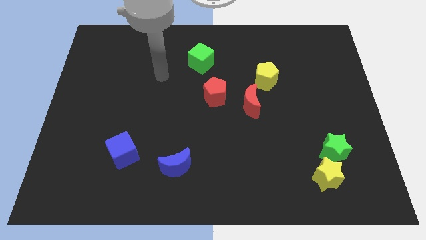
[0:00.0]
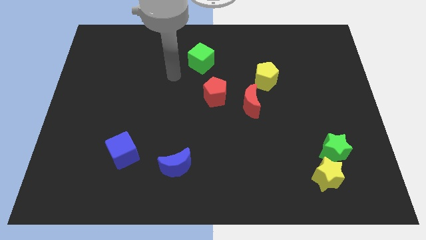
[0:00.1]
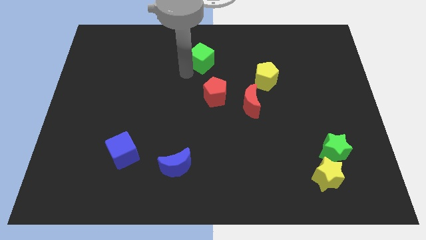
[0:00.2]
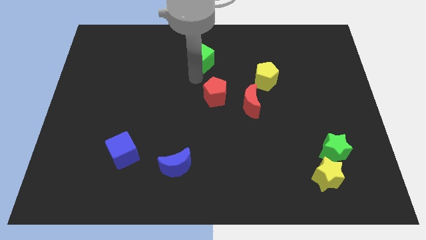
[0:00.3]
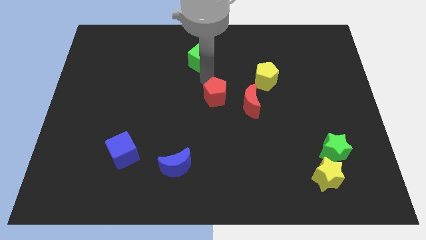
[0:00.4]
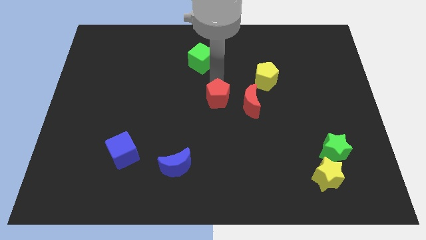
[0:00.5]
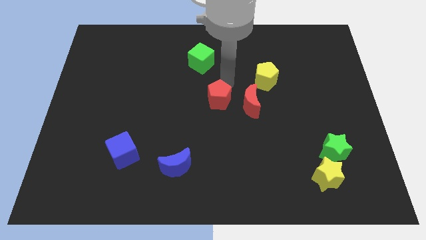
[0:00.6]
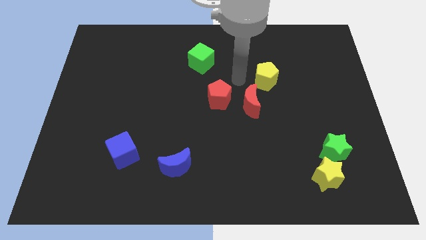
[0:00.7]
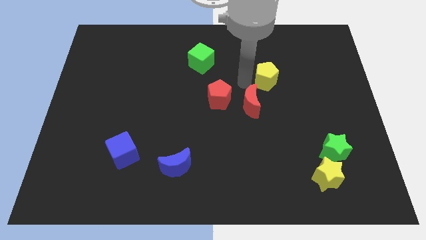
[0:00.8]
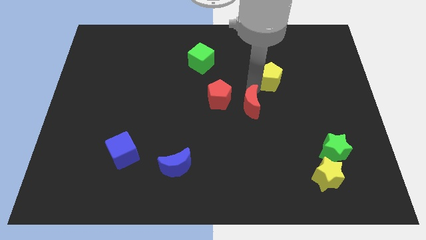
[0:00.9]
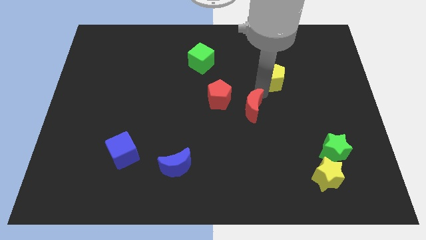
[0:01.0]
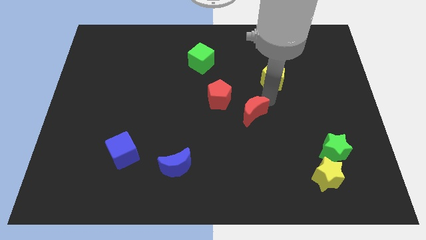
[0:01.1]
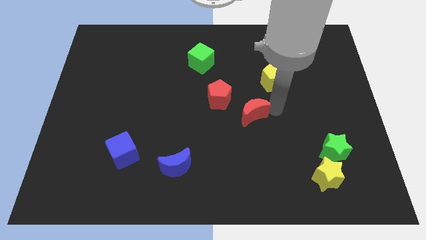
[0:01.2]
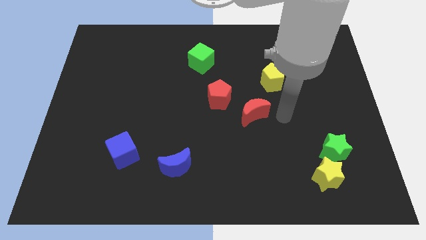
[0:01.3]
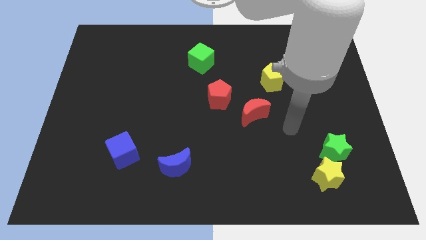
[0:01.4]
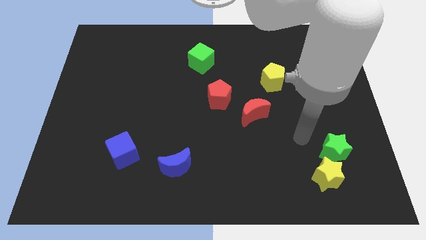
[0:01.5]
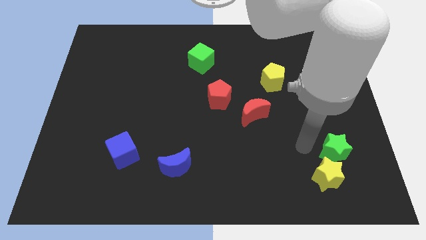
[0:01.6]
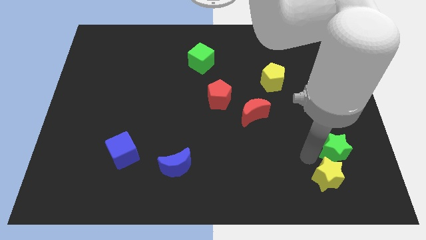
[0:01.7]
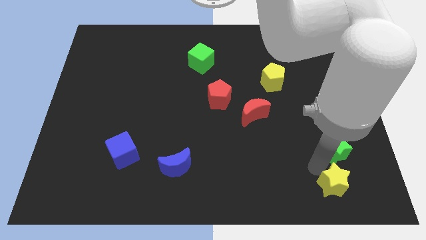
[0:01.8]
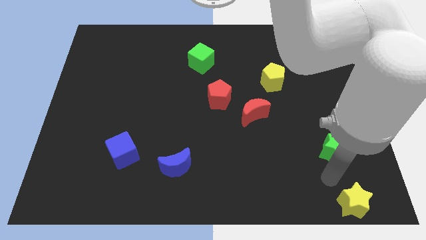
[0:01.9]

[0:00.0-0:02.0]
pull the green star apart from the yellow star

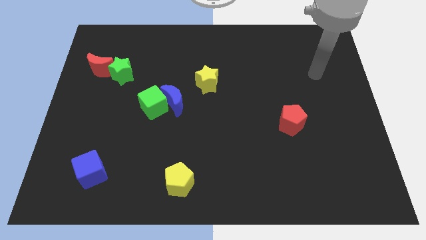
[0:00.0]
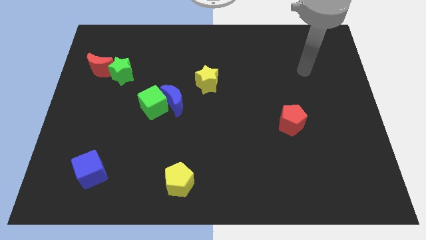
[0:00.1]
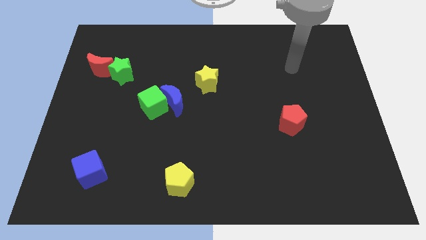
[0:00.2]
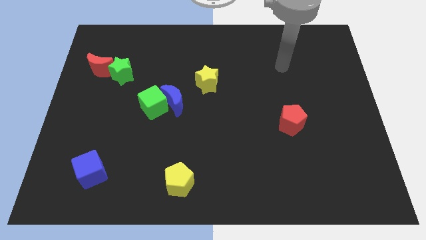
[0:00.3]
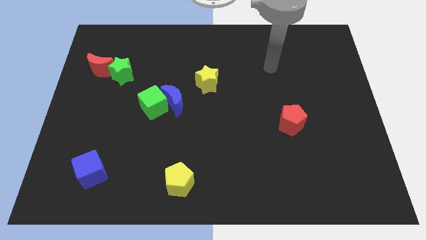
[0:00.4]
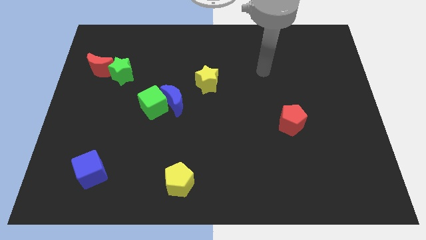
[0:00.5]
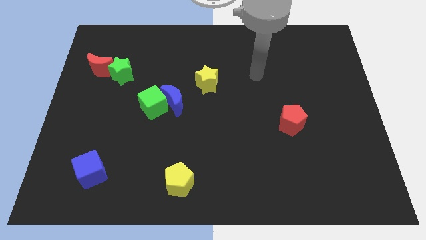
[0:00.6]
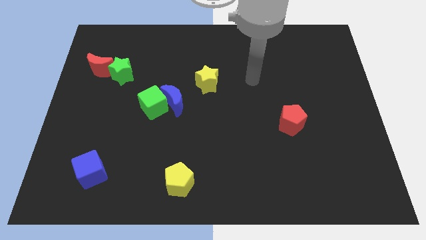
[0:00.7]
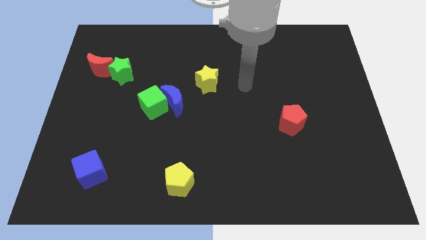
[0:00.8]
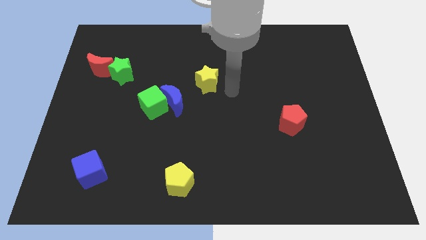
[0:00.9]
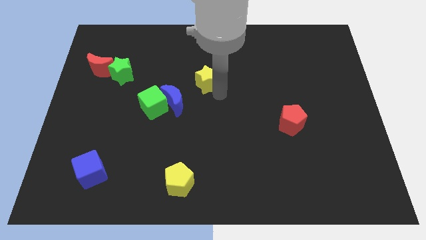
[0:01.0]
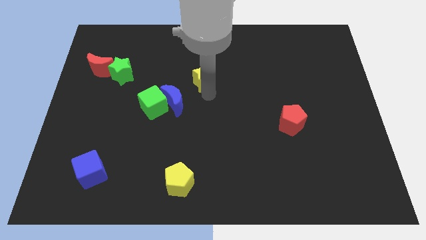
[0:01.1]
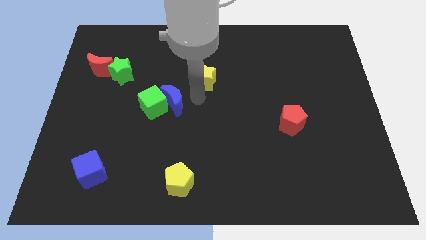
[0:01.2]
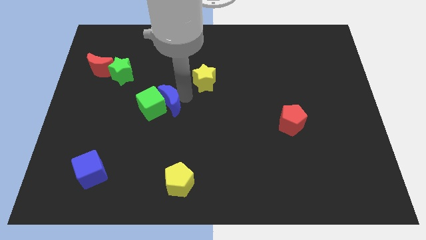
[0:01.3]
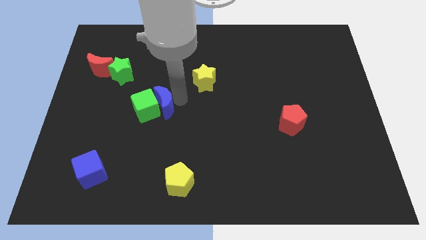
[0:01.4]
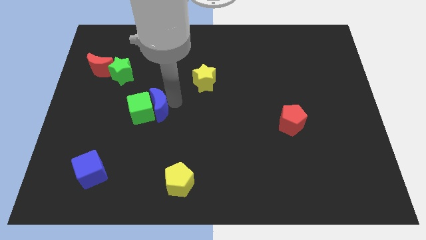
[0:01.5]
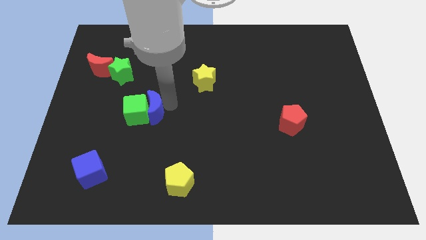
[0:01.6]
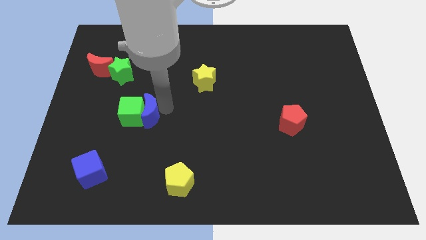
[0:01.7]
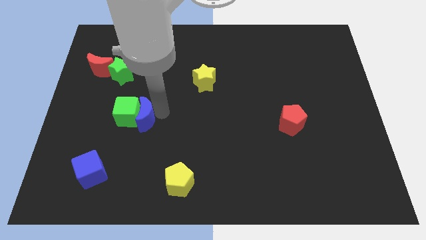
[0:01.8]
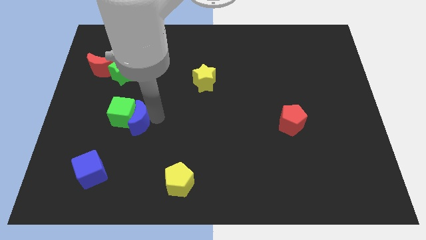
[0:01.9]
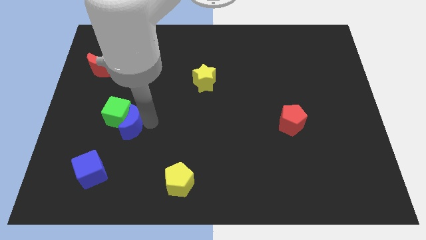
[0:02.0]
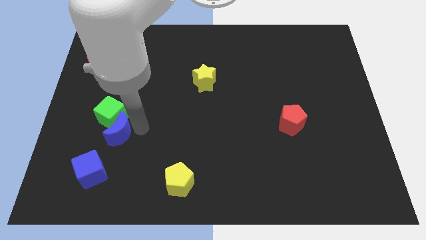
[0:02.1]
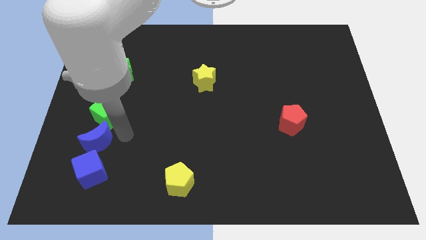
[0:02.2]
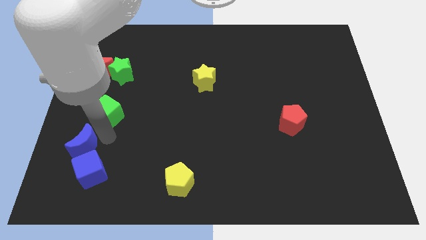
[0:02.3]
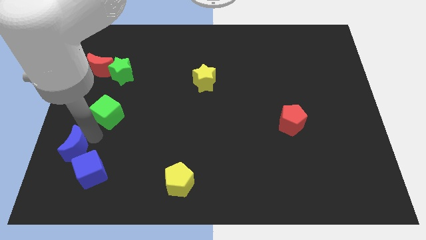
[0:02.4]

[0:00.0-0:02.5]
pull the green cube apart from the blue moon

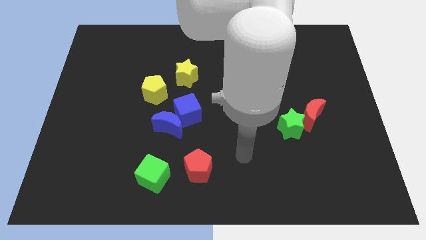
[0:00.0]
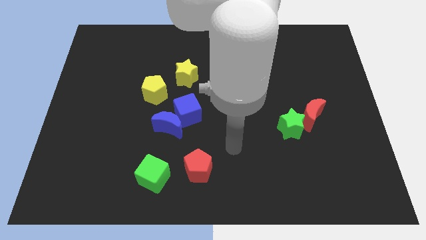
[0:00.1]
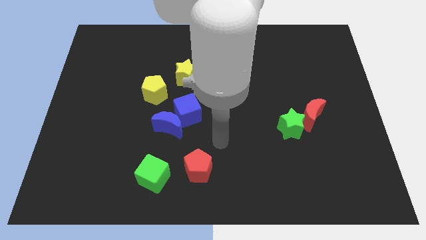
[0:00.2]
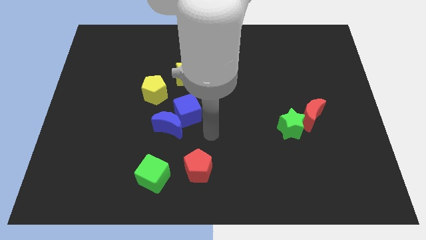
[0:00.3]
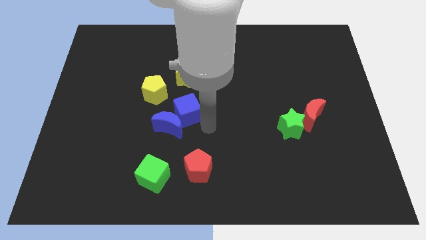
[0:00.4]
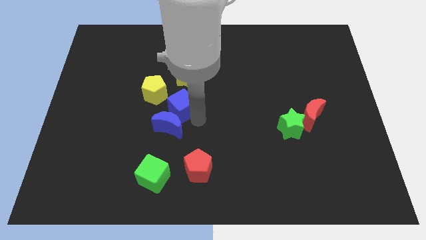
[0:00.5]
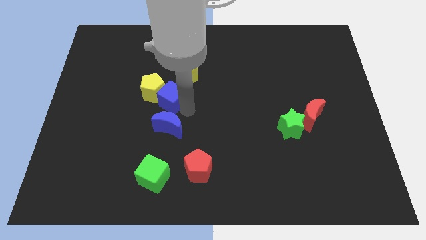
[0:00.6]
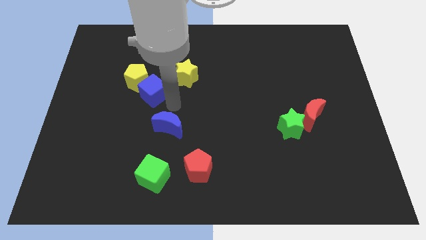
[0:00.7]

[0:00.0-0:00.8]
separate the blue moon from the blue cube

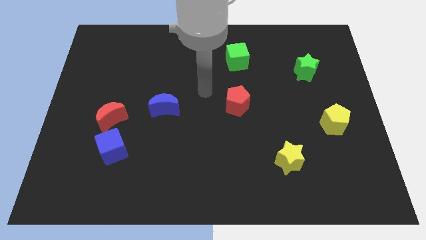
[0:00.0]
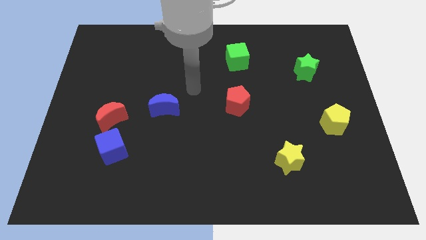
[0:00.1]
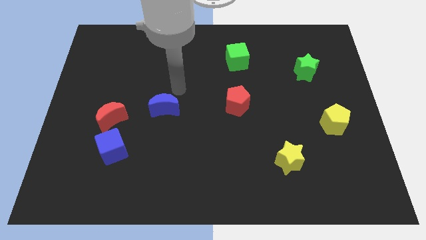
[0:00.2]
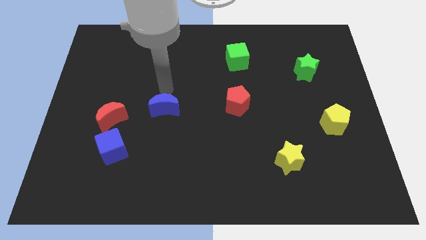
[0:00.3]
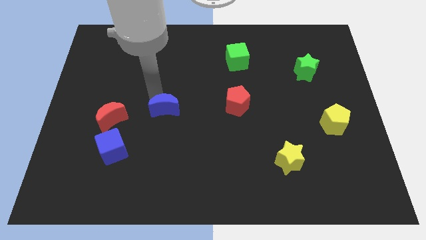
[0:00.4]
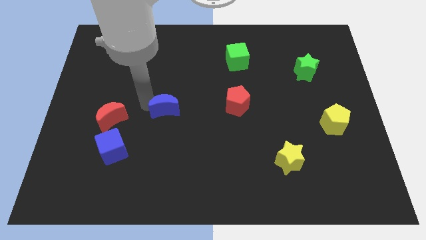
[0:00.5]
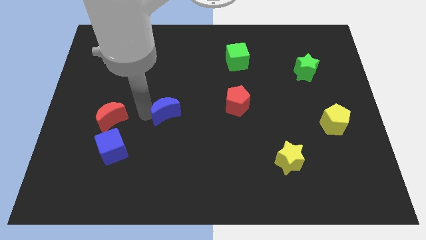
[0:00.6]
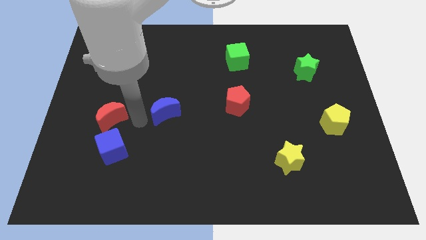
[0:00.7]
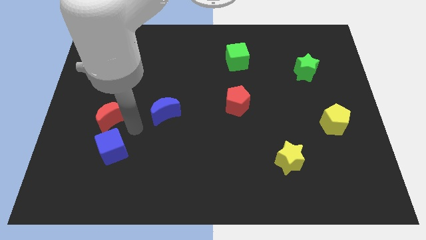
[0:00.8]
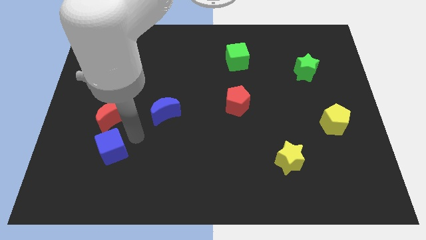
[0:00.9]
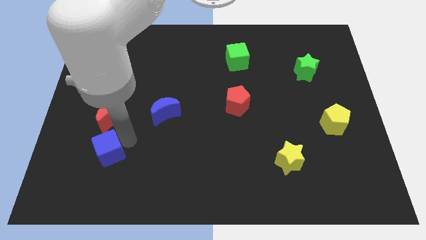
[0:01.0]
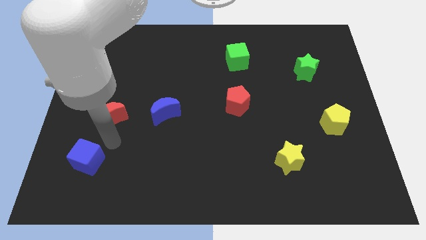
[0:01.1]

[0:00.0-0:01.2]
pull the red moon apart from the blue cube

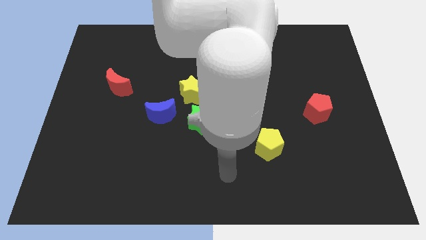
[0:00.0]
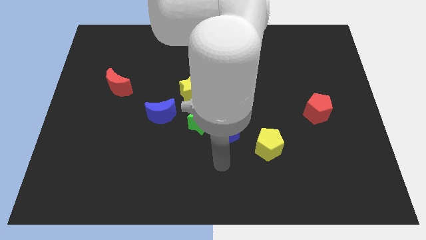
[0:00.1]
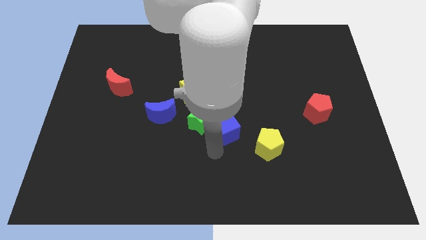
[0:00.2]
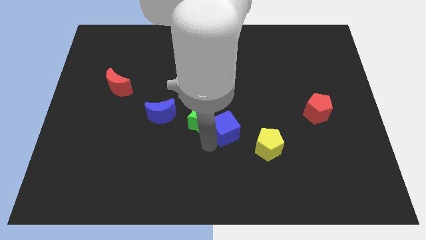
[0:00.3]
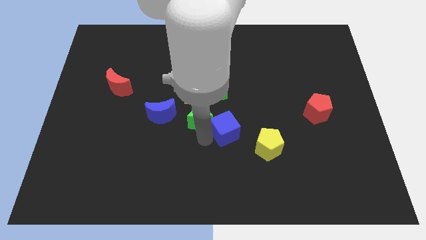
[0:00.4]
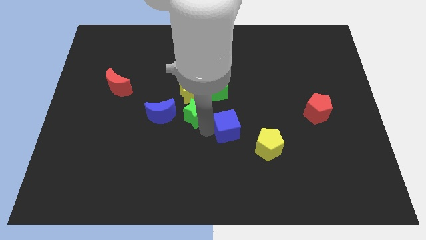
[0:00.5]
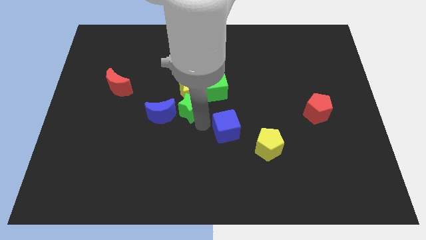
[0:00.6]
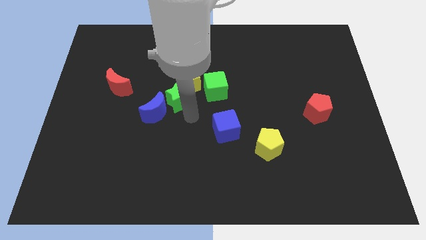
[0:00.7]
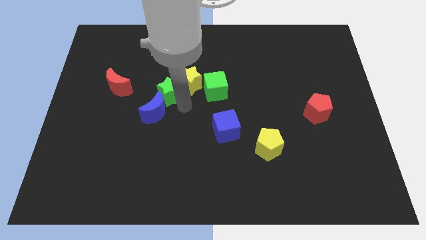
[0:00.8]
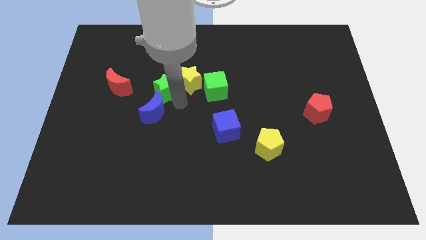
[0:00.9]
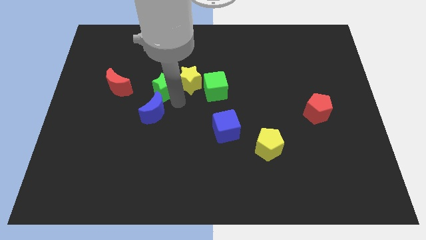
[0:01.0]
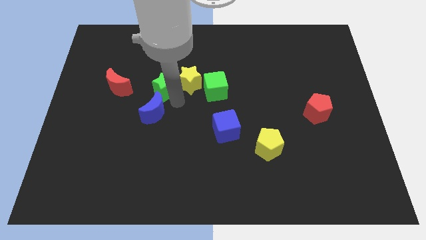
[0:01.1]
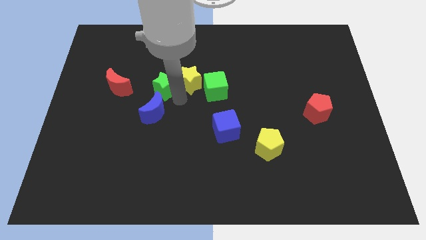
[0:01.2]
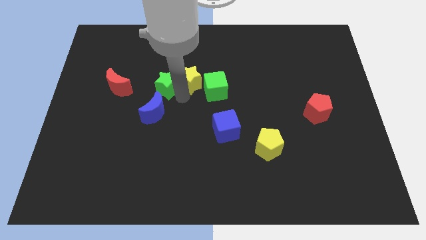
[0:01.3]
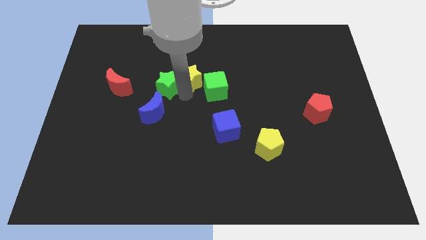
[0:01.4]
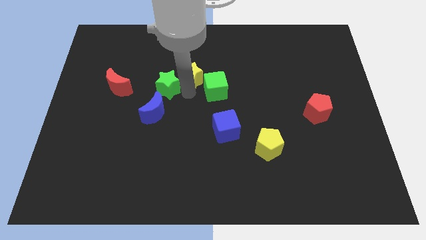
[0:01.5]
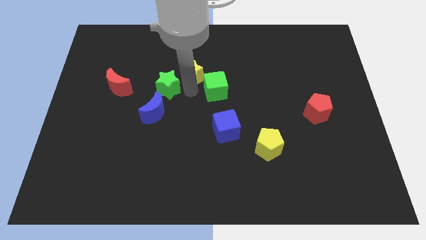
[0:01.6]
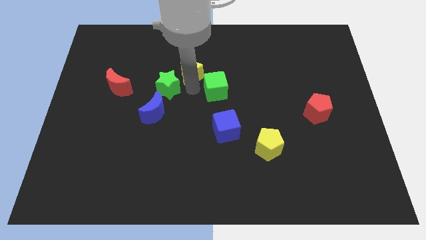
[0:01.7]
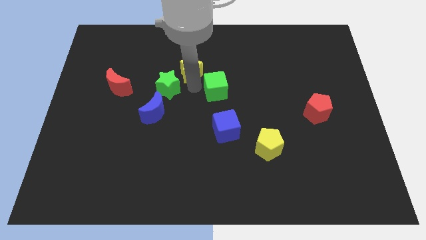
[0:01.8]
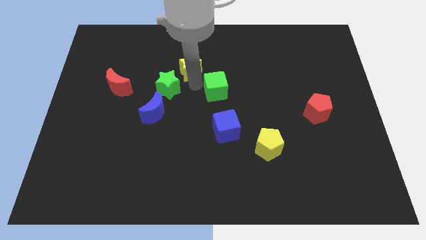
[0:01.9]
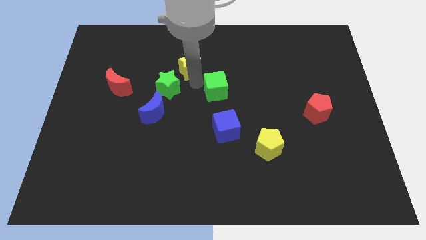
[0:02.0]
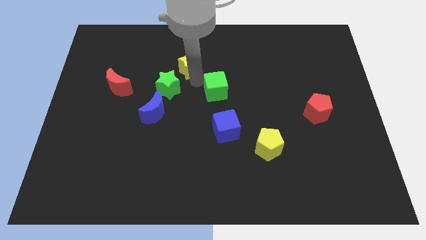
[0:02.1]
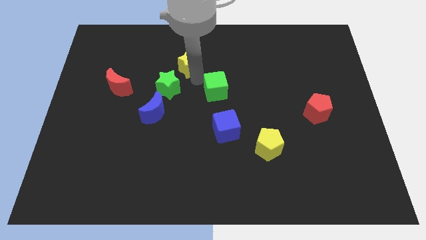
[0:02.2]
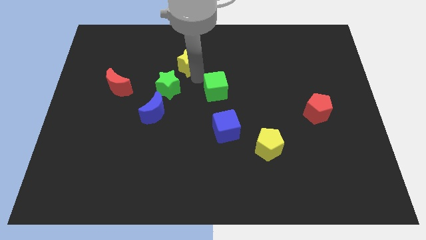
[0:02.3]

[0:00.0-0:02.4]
separate the yellow star from the green cube, green star, and blue moon

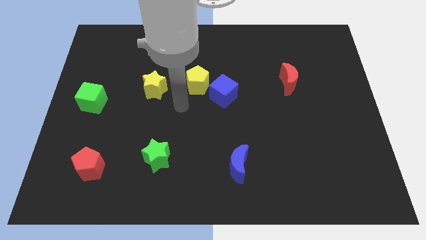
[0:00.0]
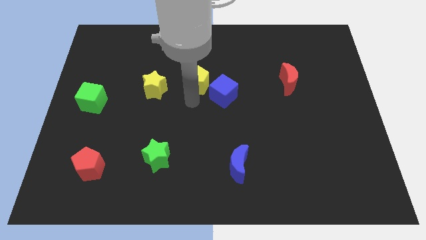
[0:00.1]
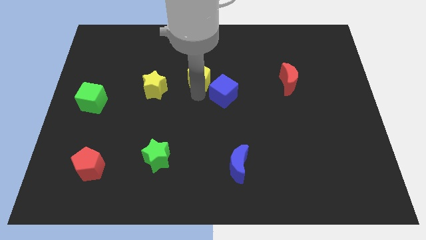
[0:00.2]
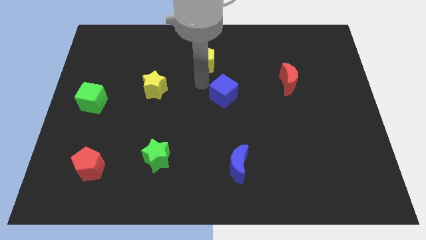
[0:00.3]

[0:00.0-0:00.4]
move the blue cube away from the yellow pentagon
